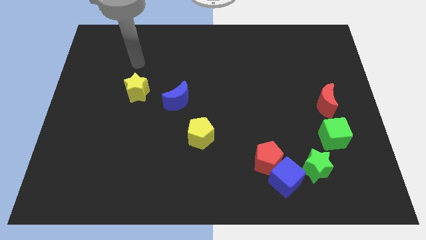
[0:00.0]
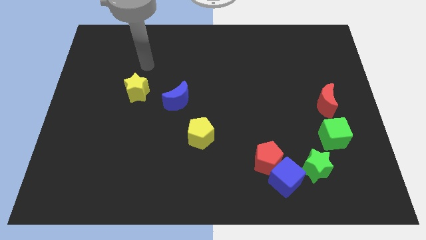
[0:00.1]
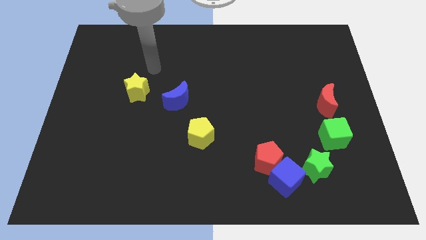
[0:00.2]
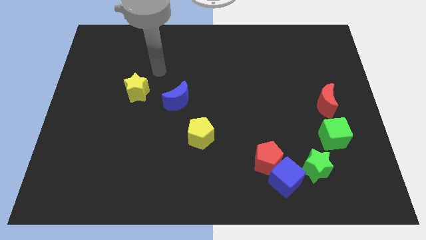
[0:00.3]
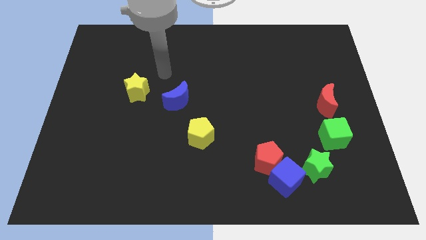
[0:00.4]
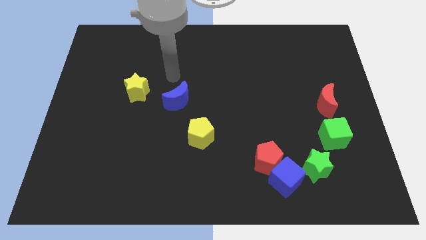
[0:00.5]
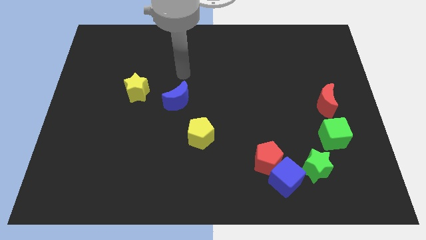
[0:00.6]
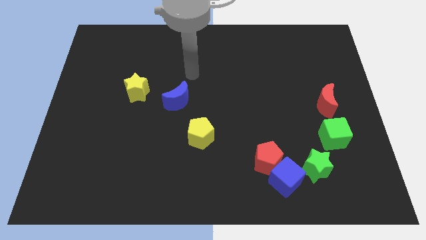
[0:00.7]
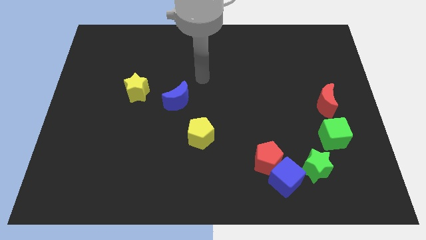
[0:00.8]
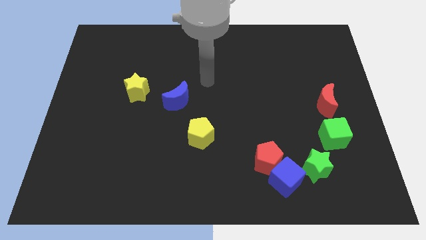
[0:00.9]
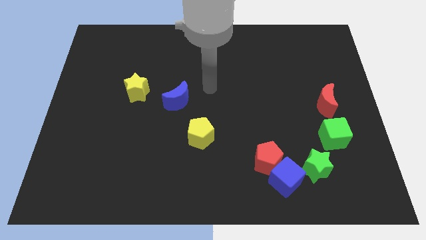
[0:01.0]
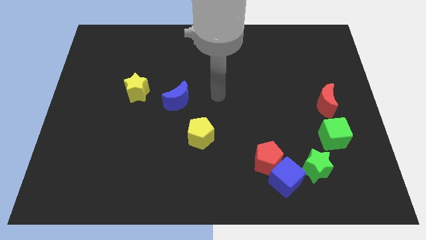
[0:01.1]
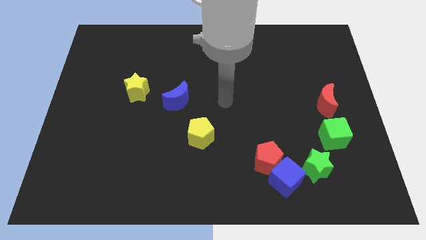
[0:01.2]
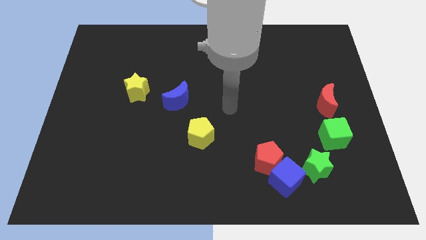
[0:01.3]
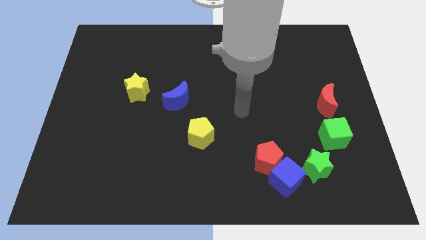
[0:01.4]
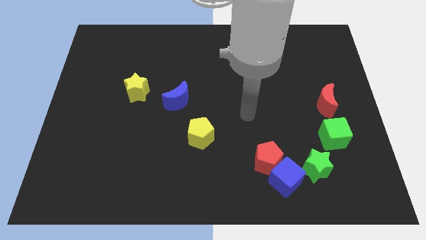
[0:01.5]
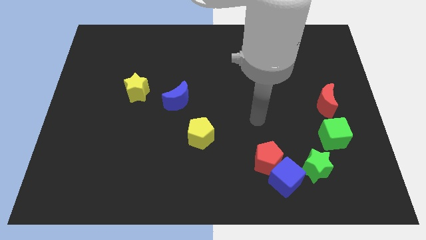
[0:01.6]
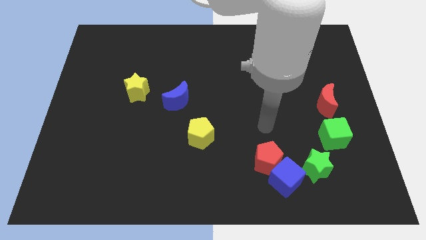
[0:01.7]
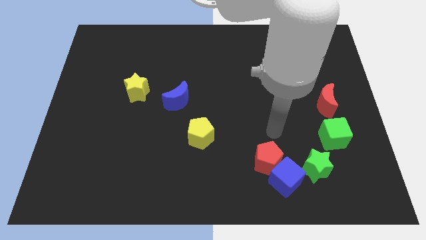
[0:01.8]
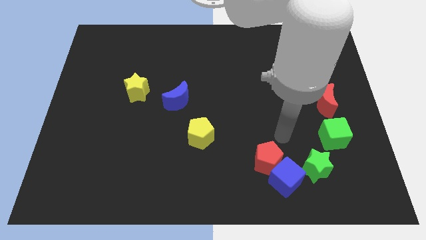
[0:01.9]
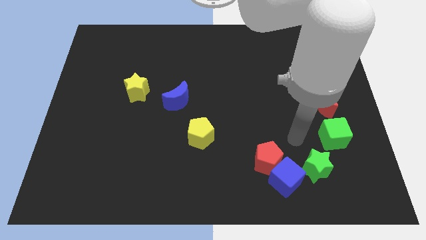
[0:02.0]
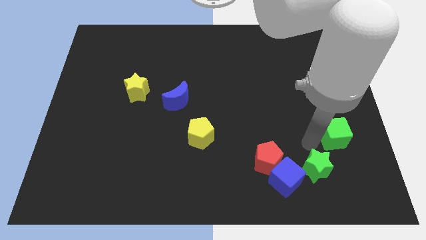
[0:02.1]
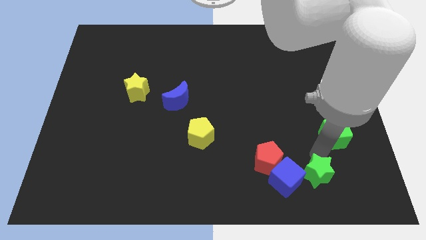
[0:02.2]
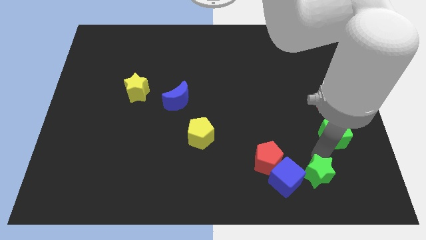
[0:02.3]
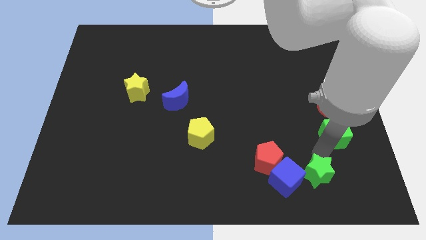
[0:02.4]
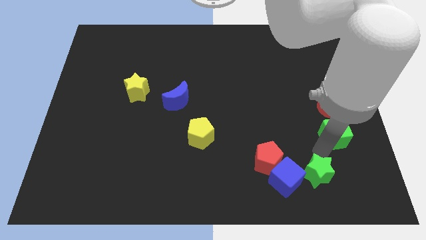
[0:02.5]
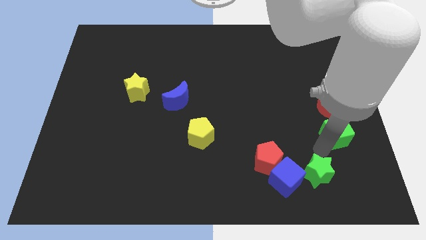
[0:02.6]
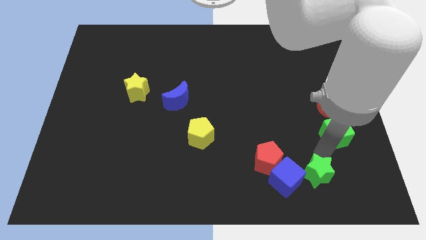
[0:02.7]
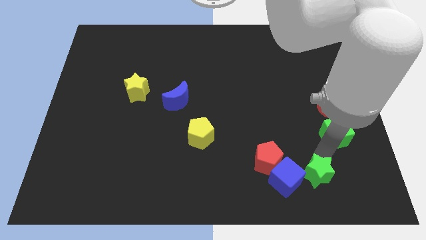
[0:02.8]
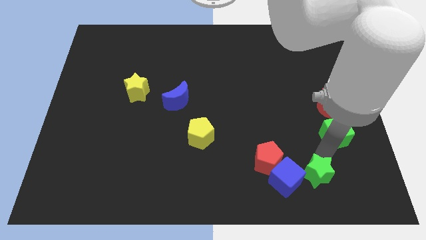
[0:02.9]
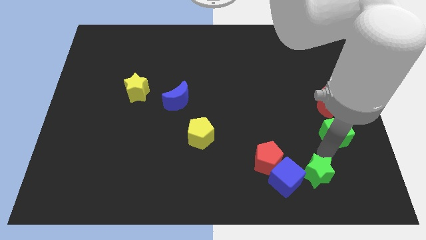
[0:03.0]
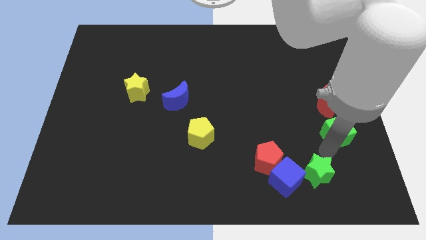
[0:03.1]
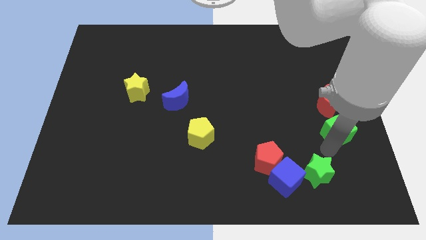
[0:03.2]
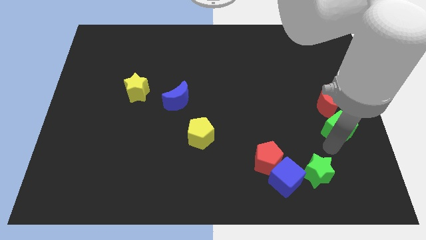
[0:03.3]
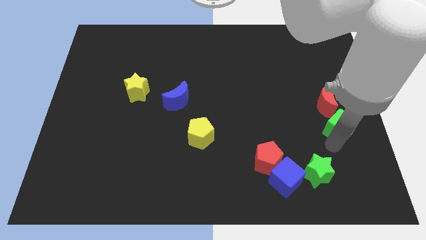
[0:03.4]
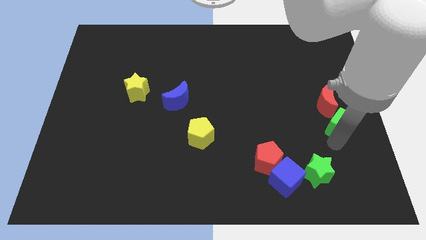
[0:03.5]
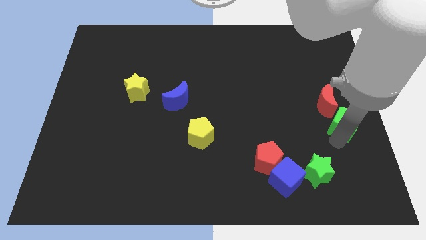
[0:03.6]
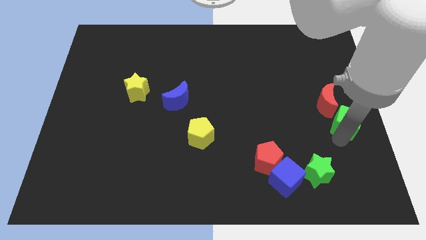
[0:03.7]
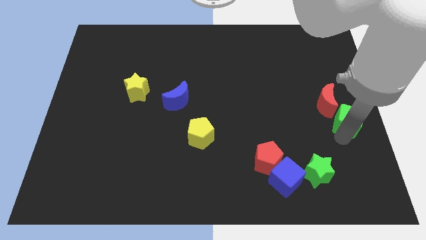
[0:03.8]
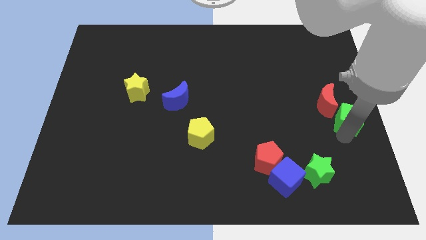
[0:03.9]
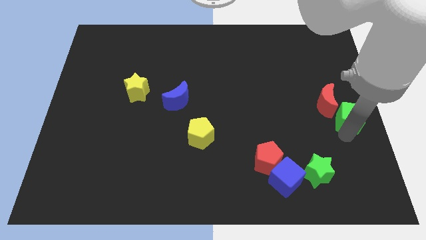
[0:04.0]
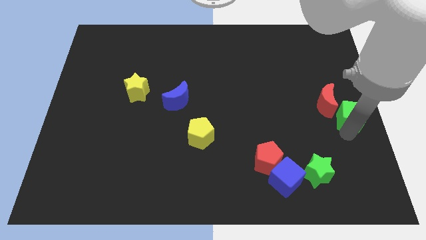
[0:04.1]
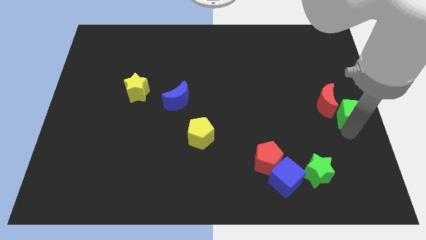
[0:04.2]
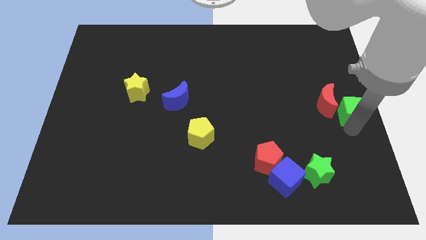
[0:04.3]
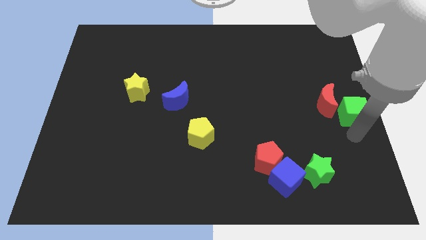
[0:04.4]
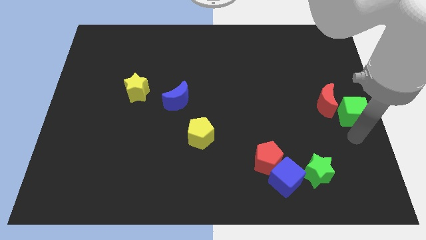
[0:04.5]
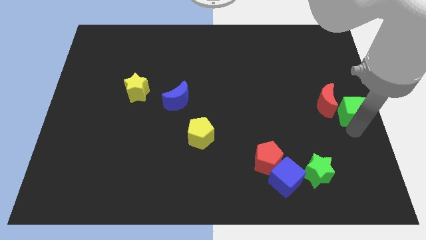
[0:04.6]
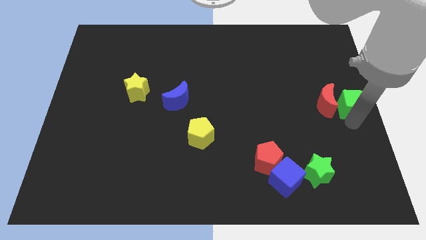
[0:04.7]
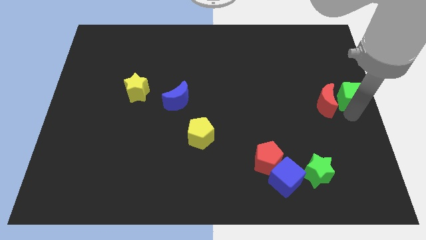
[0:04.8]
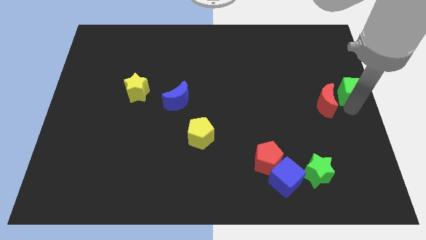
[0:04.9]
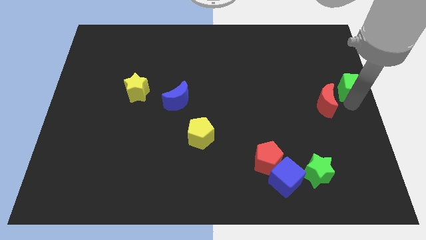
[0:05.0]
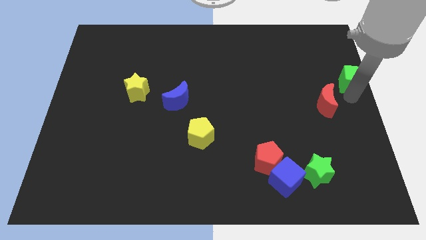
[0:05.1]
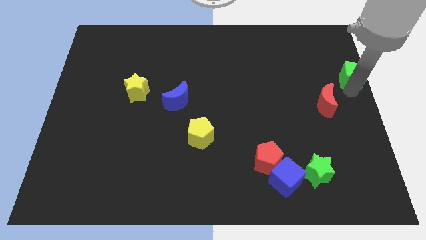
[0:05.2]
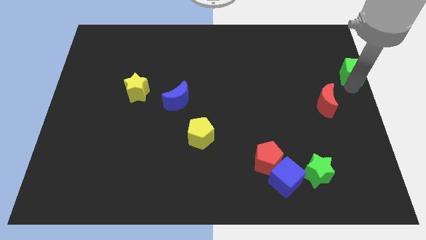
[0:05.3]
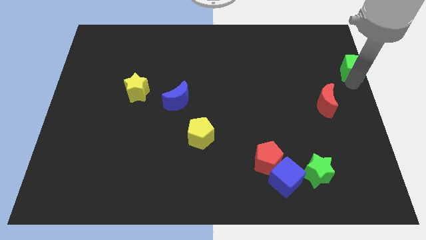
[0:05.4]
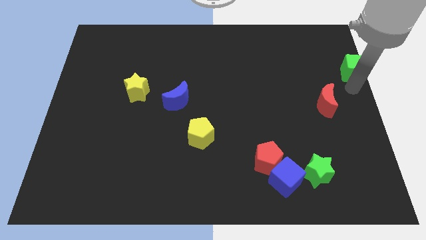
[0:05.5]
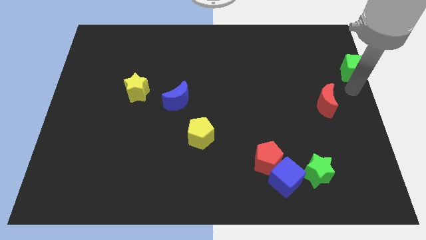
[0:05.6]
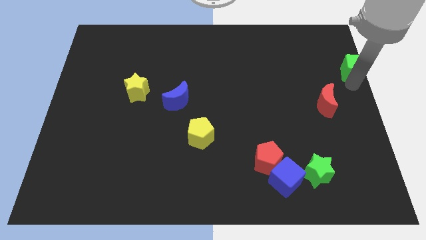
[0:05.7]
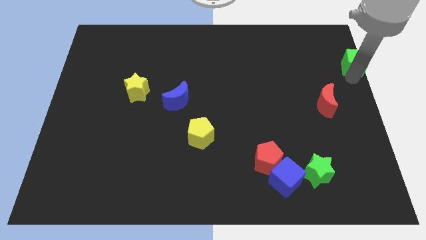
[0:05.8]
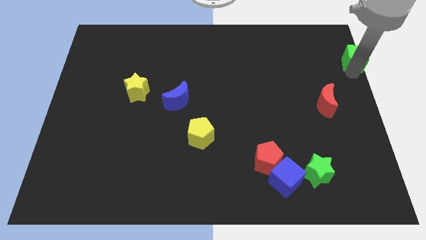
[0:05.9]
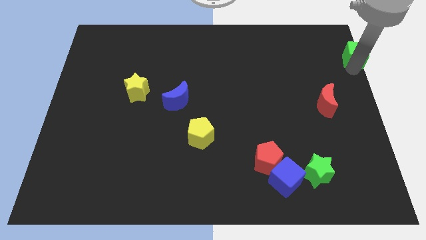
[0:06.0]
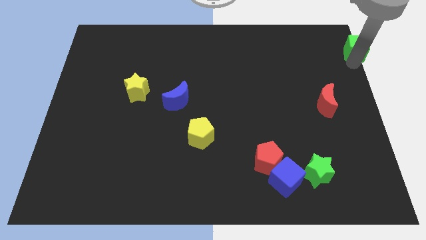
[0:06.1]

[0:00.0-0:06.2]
slide the green cube to the top right of the board

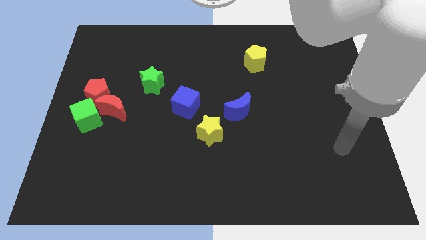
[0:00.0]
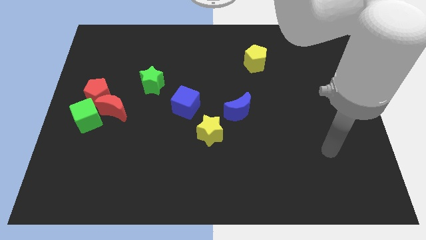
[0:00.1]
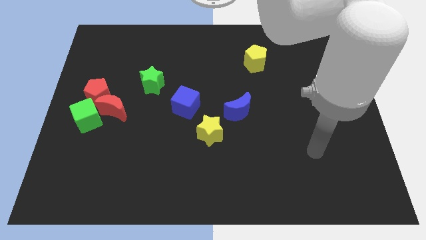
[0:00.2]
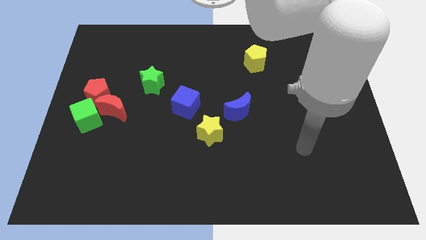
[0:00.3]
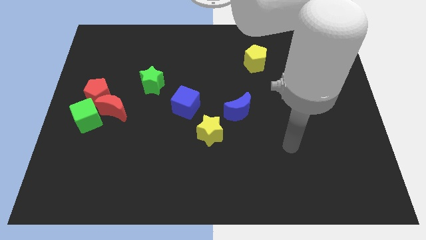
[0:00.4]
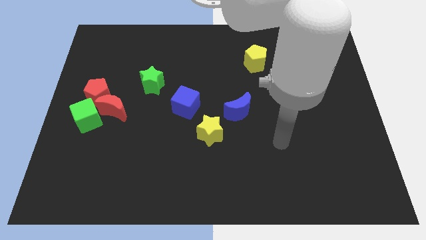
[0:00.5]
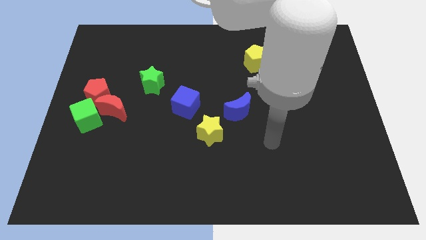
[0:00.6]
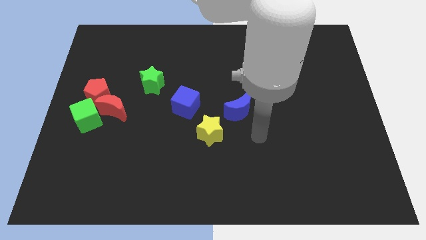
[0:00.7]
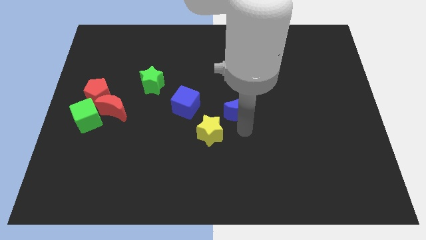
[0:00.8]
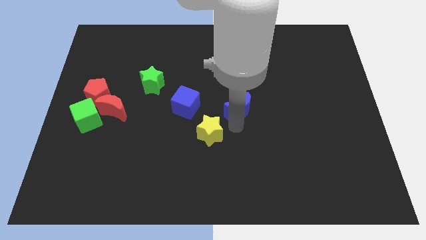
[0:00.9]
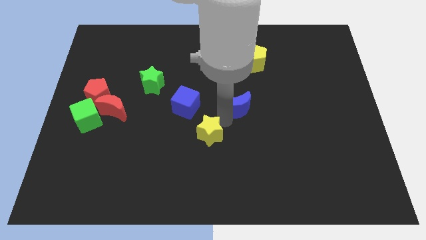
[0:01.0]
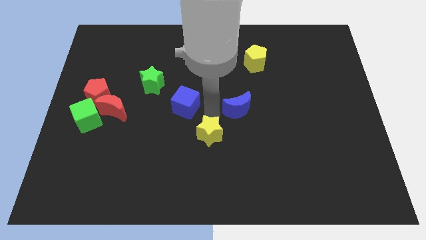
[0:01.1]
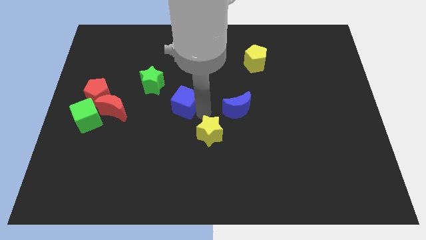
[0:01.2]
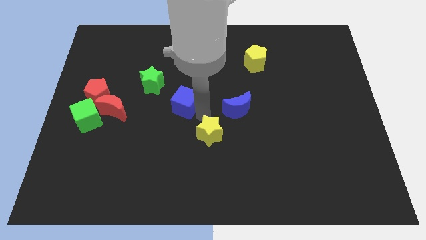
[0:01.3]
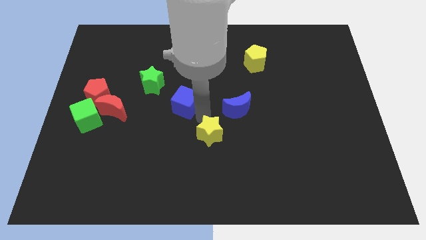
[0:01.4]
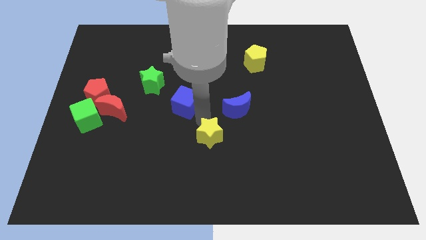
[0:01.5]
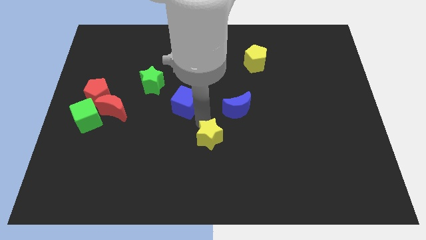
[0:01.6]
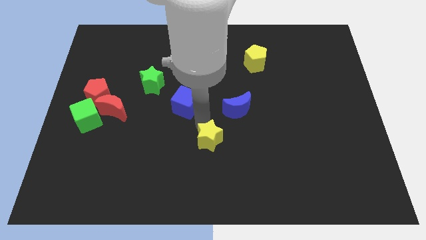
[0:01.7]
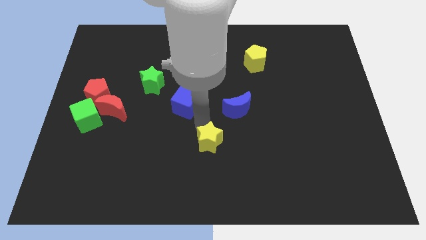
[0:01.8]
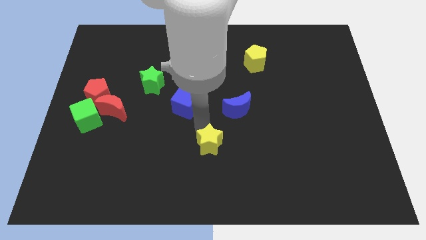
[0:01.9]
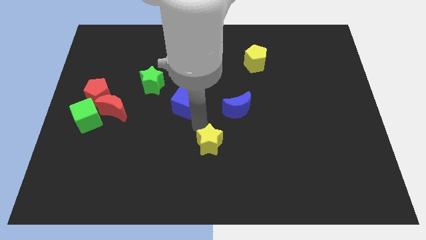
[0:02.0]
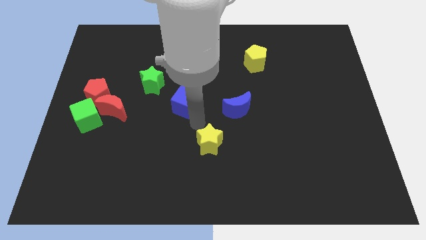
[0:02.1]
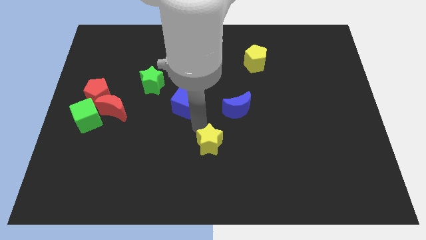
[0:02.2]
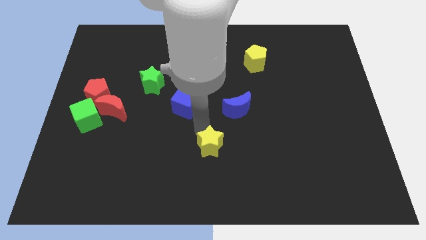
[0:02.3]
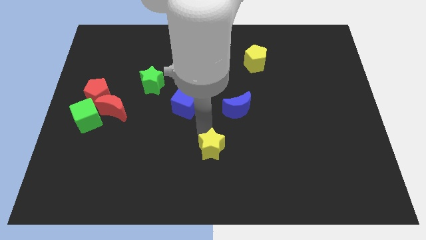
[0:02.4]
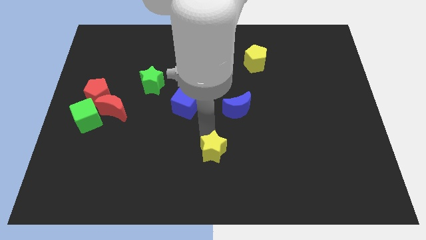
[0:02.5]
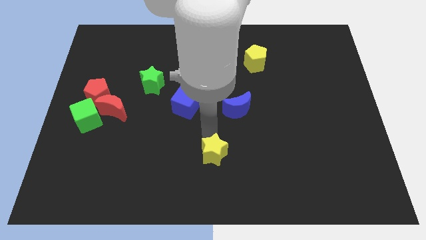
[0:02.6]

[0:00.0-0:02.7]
push the yellow star to the bottom
